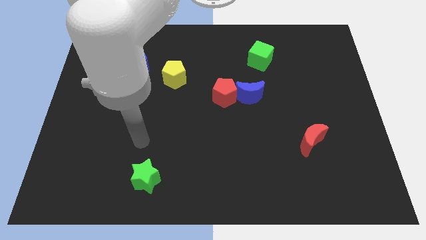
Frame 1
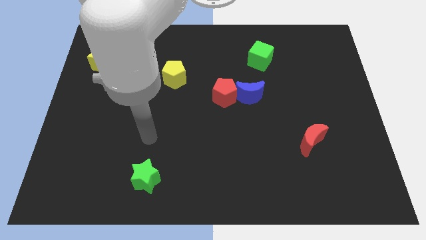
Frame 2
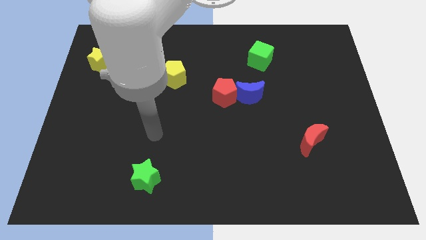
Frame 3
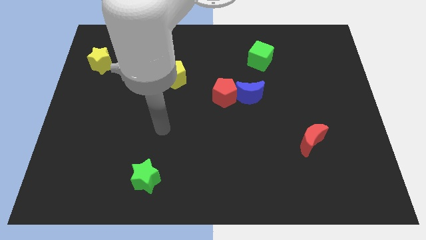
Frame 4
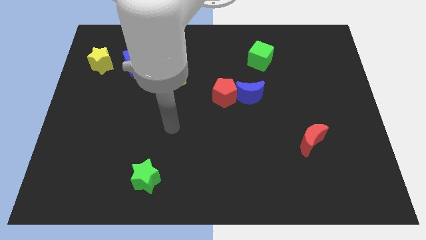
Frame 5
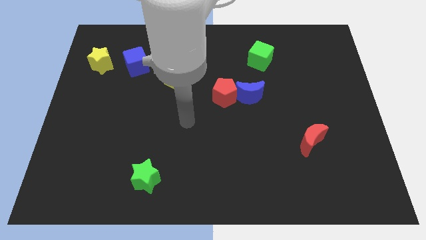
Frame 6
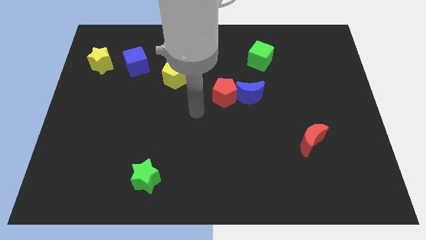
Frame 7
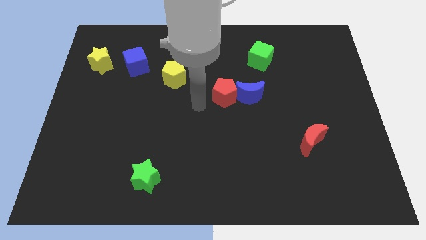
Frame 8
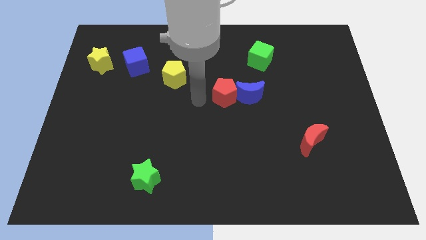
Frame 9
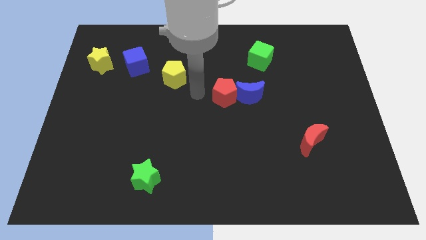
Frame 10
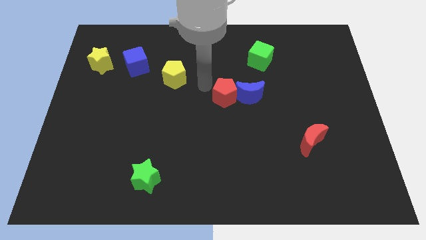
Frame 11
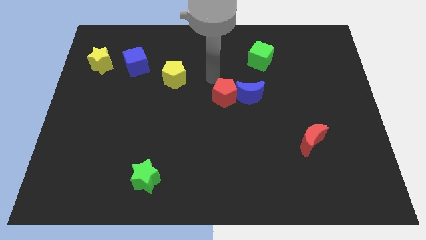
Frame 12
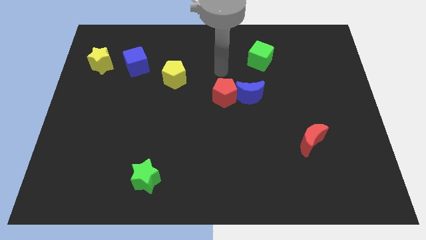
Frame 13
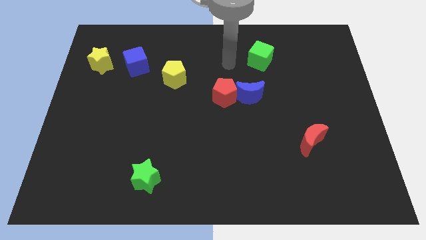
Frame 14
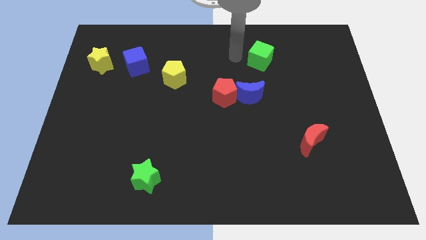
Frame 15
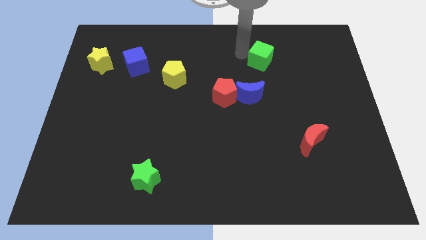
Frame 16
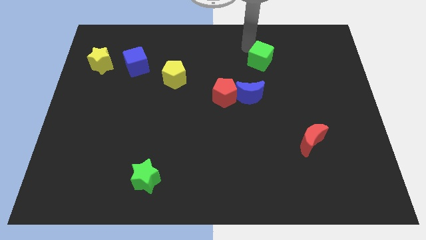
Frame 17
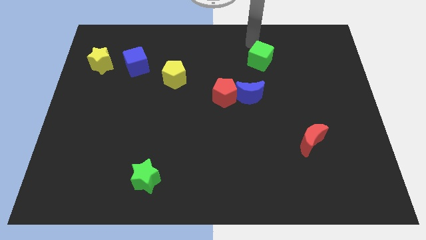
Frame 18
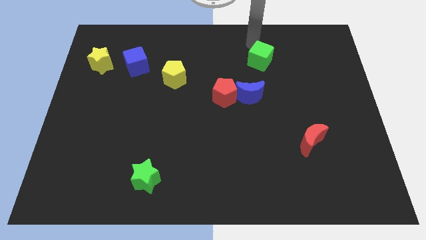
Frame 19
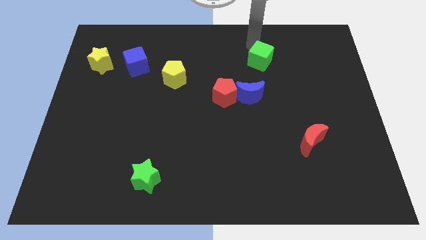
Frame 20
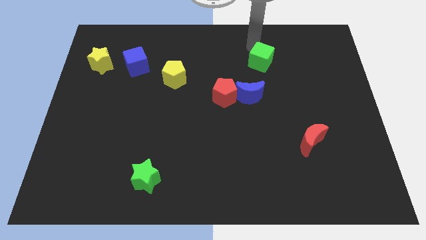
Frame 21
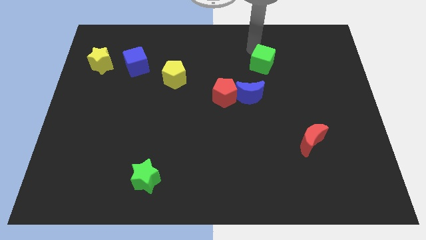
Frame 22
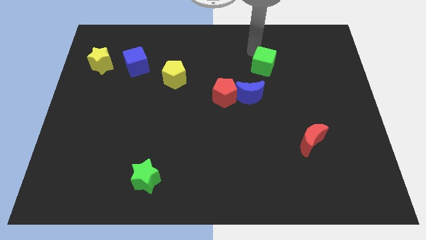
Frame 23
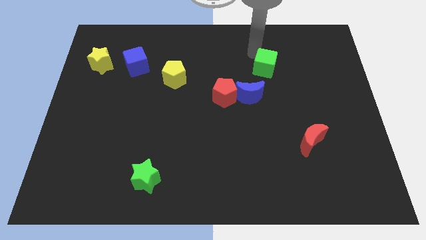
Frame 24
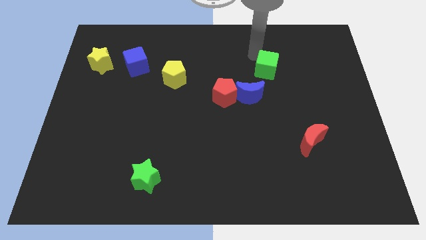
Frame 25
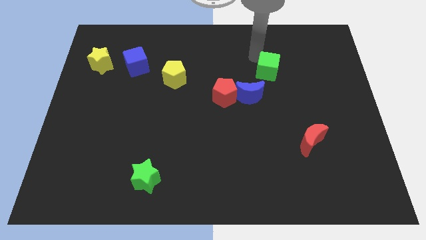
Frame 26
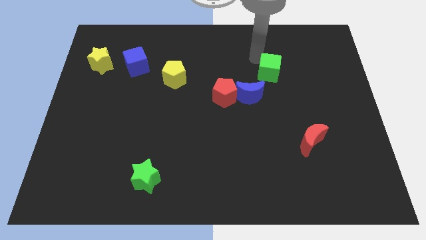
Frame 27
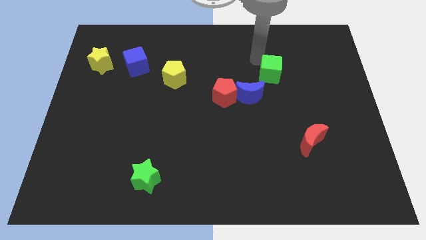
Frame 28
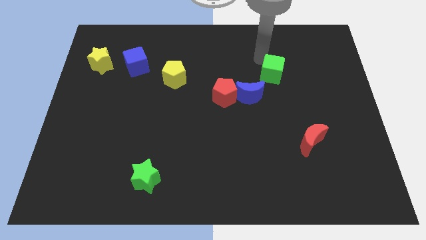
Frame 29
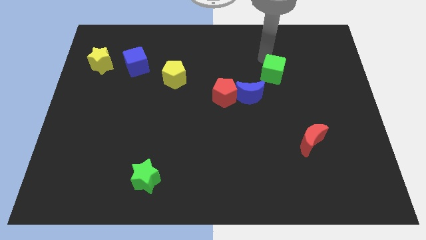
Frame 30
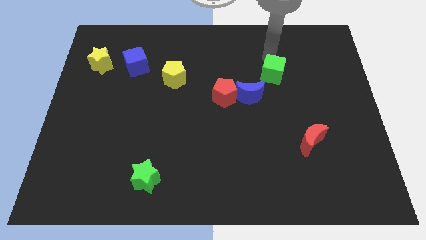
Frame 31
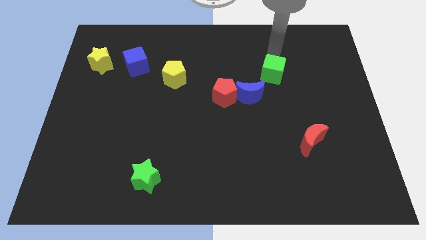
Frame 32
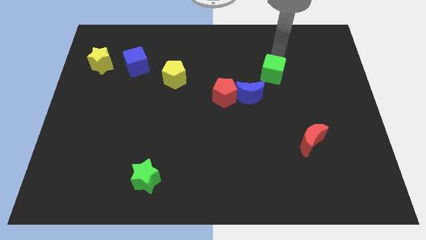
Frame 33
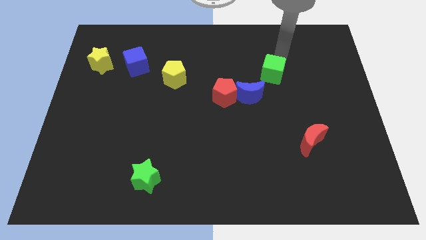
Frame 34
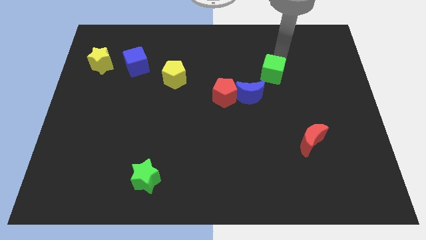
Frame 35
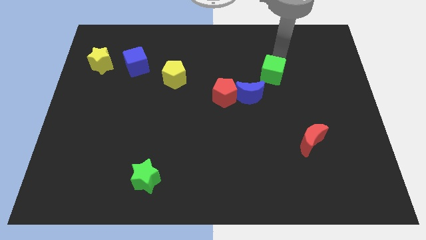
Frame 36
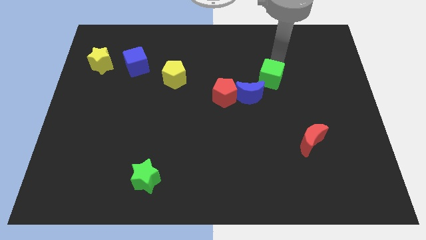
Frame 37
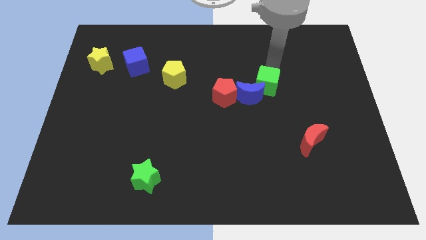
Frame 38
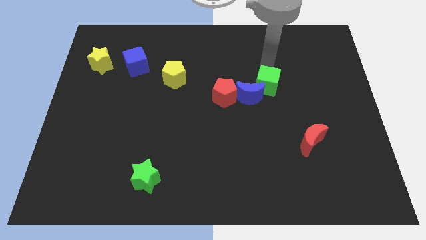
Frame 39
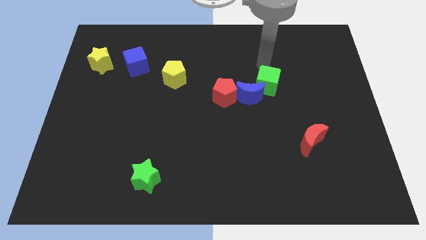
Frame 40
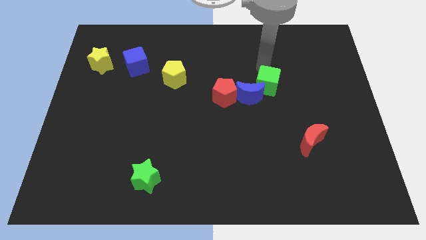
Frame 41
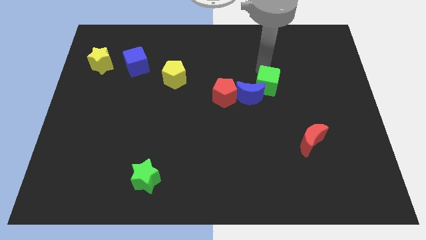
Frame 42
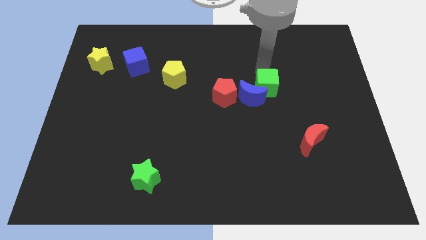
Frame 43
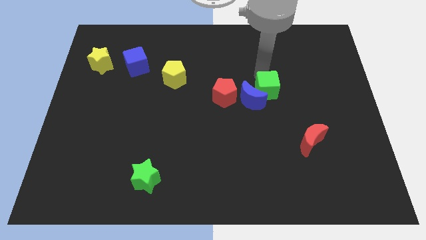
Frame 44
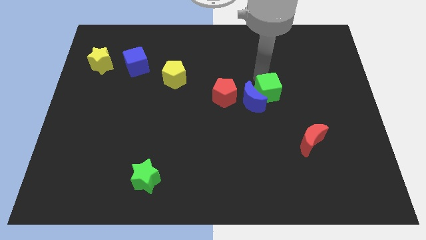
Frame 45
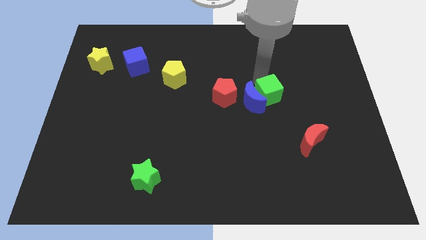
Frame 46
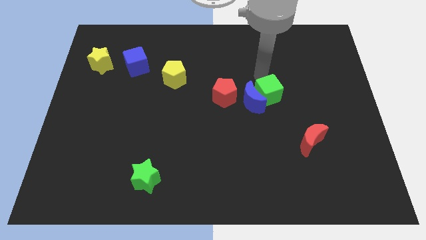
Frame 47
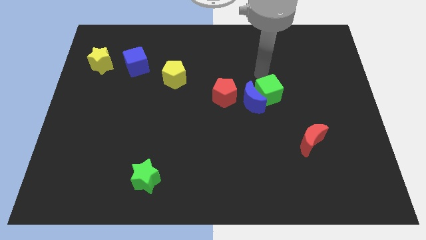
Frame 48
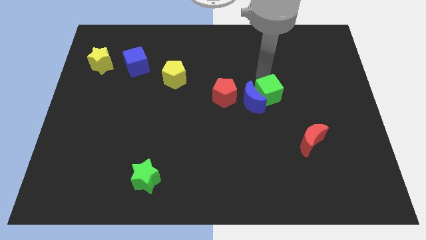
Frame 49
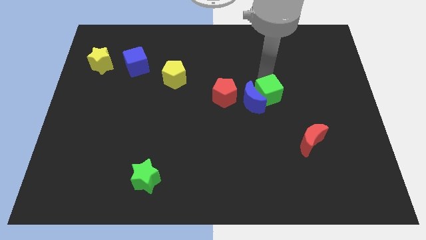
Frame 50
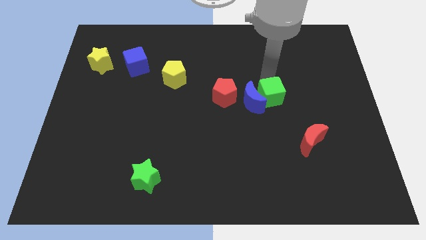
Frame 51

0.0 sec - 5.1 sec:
push the green cube to the bottom right of the blue moon

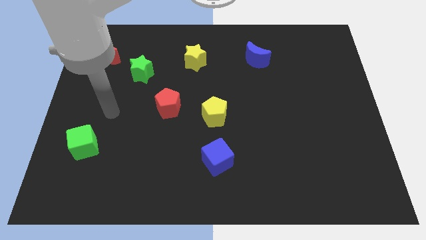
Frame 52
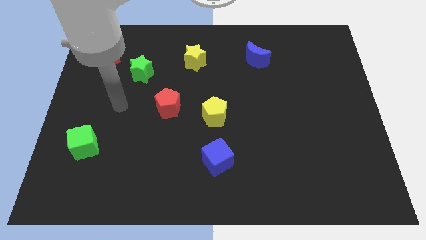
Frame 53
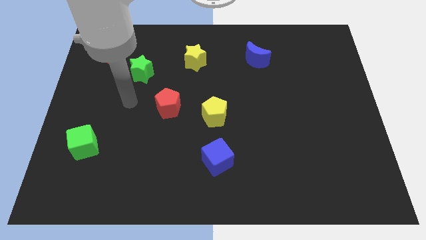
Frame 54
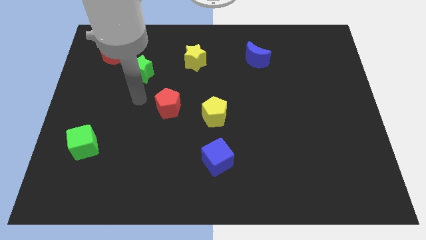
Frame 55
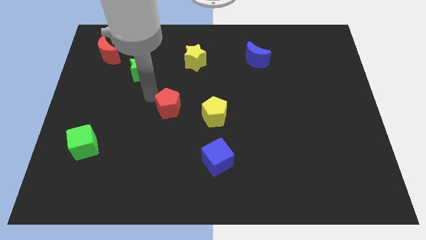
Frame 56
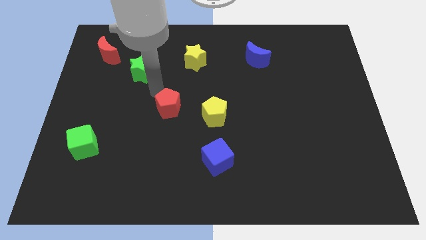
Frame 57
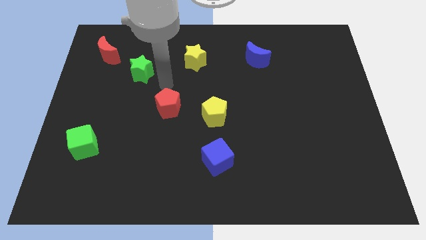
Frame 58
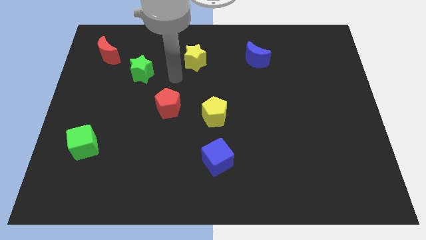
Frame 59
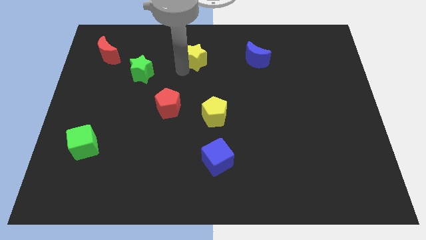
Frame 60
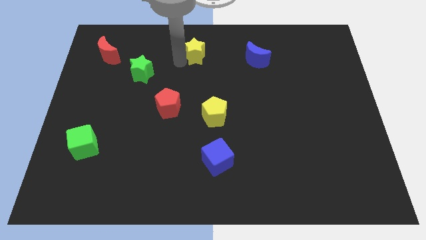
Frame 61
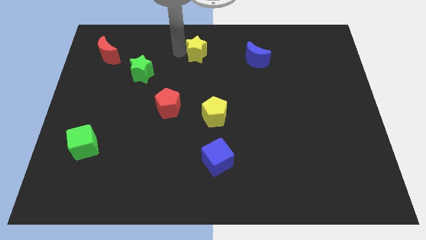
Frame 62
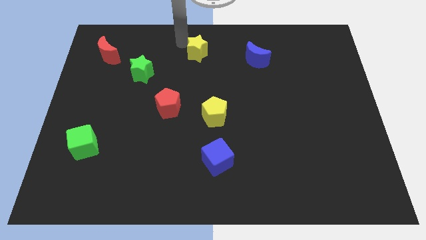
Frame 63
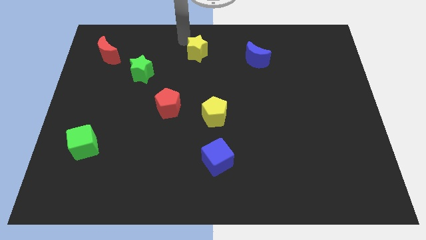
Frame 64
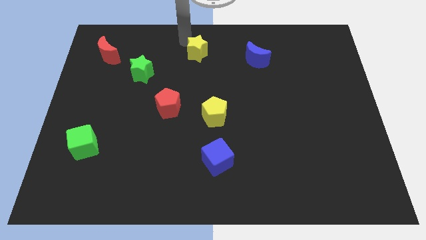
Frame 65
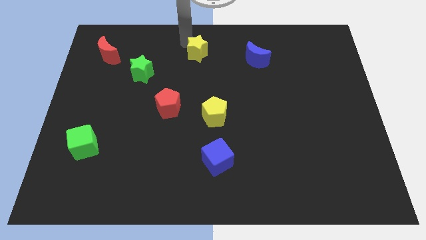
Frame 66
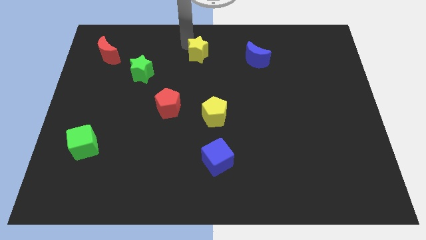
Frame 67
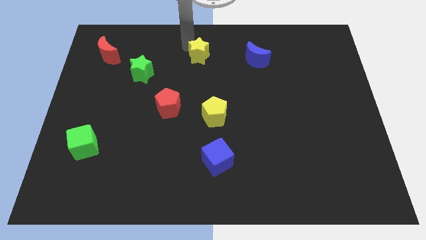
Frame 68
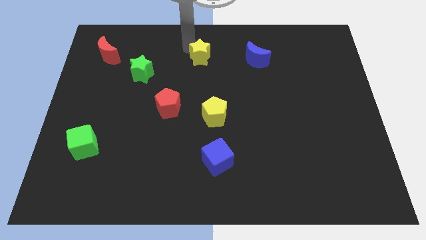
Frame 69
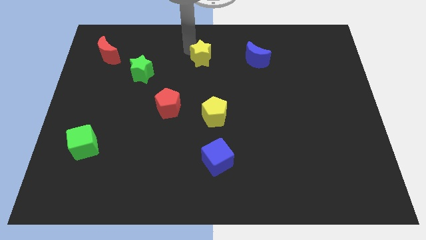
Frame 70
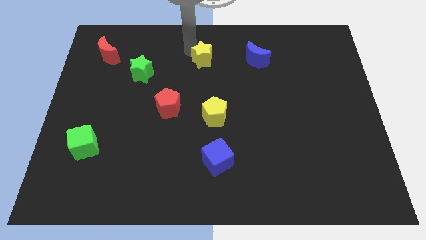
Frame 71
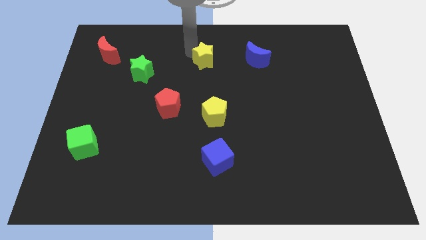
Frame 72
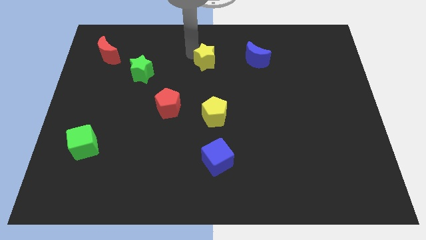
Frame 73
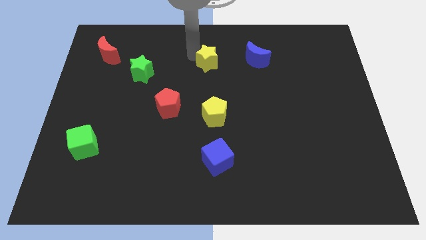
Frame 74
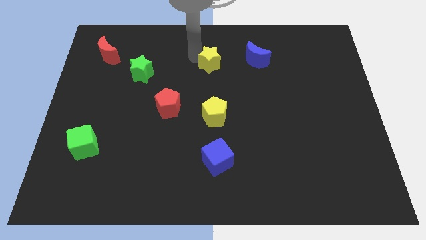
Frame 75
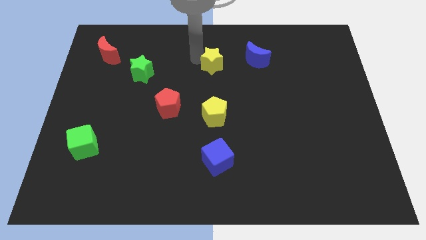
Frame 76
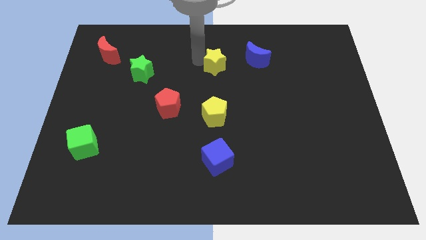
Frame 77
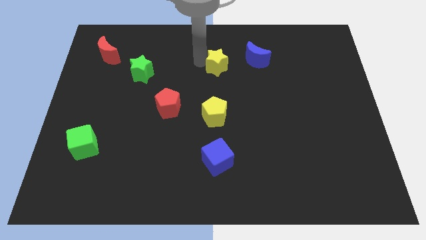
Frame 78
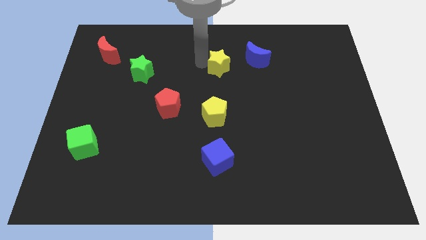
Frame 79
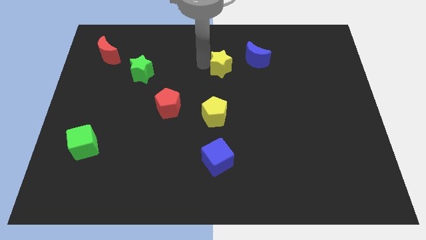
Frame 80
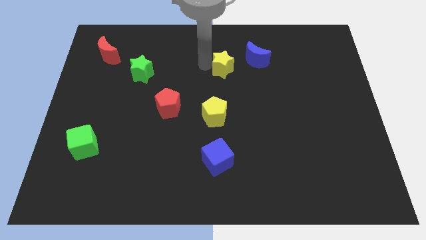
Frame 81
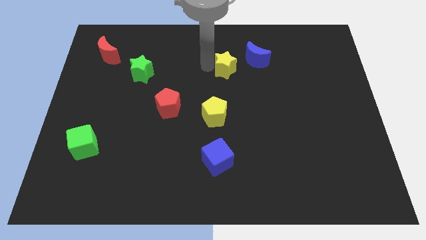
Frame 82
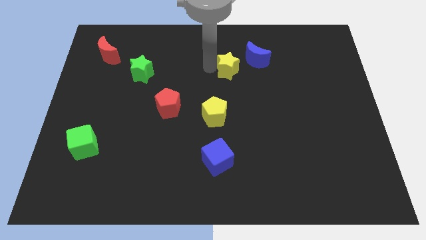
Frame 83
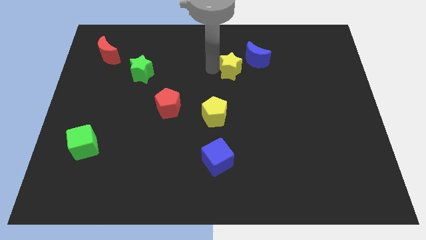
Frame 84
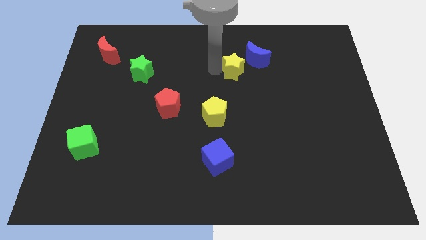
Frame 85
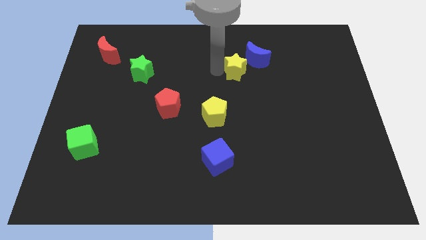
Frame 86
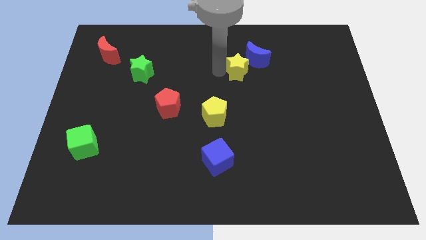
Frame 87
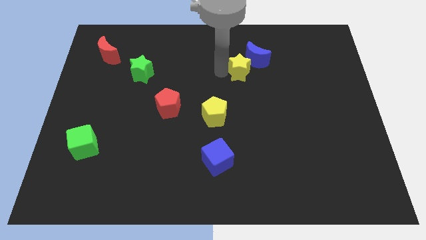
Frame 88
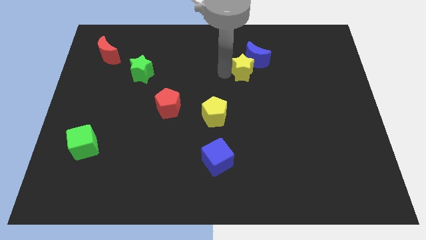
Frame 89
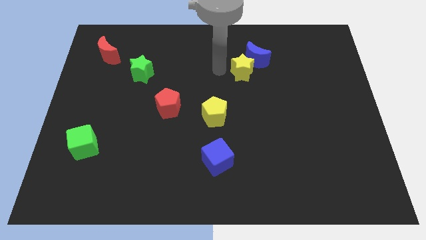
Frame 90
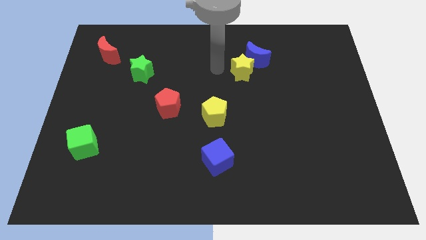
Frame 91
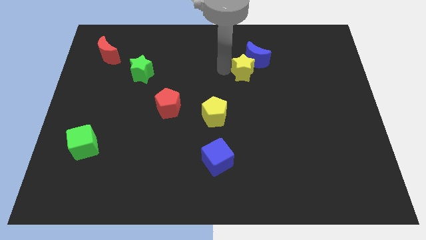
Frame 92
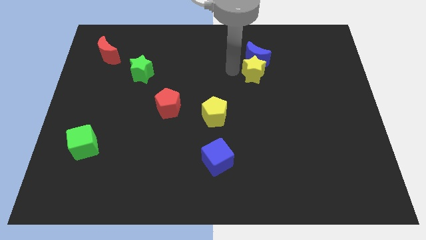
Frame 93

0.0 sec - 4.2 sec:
push the yellow star diagonally down and to the right of the blue moon
